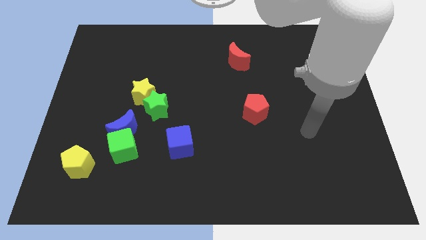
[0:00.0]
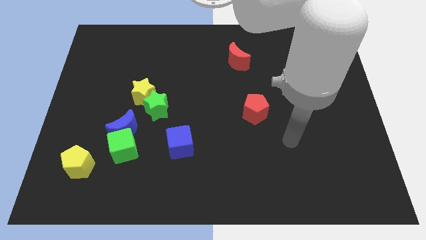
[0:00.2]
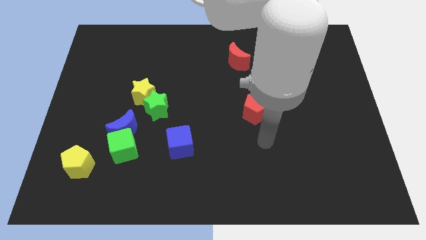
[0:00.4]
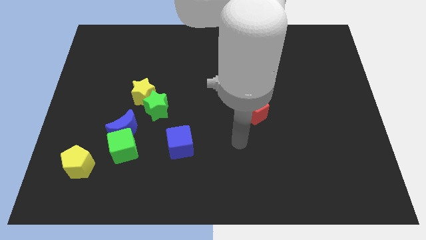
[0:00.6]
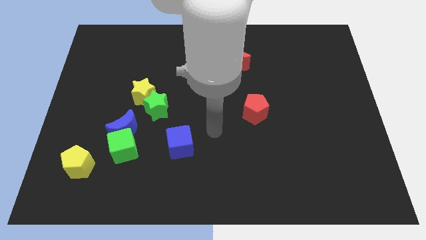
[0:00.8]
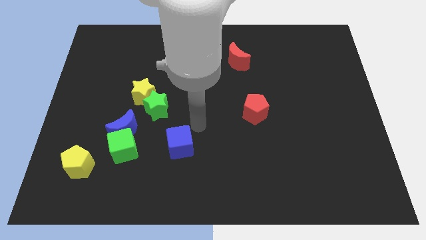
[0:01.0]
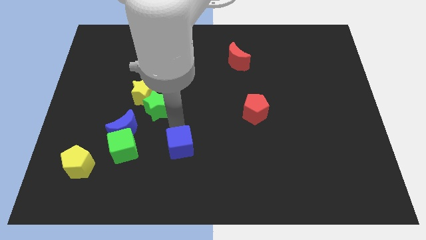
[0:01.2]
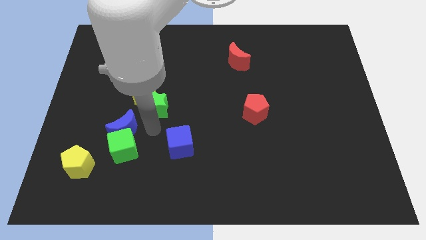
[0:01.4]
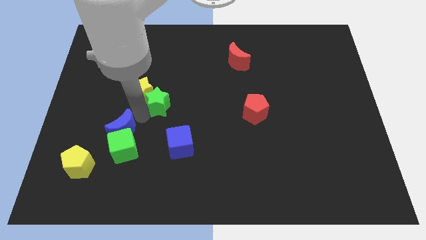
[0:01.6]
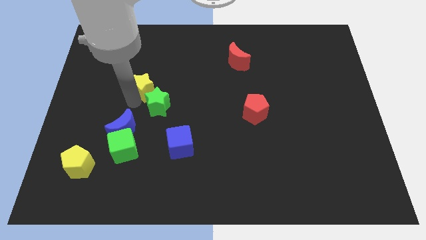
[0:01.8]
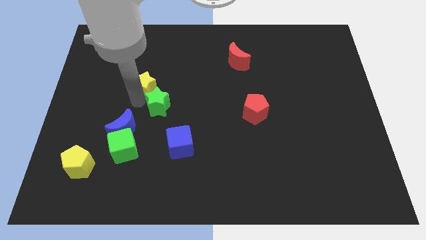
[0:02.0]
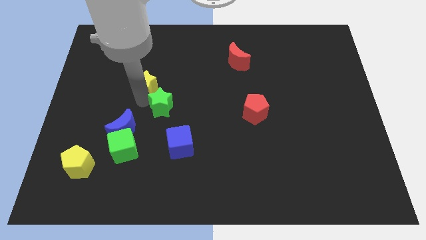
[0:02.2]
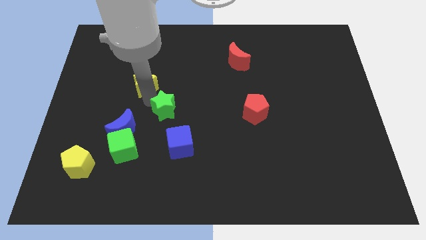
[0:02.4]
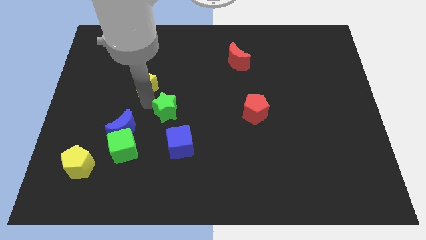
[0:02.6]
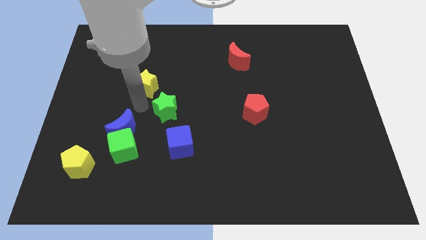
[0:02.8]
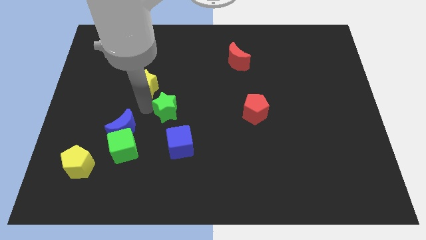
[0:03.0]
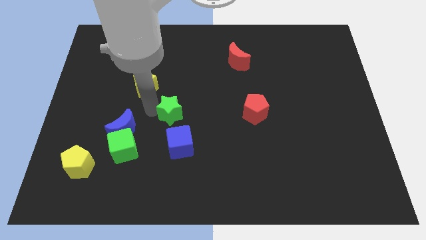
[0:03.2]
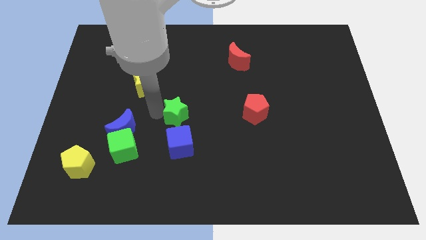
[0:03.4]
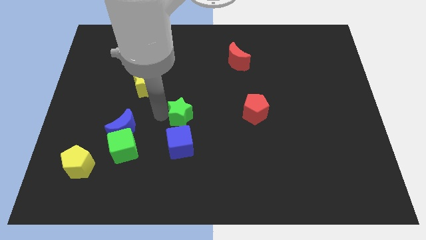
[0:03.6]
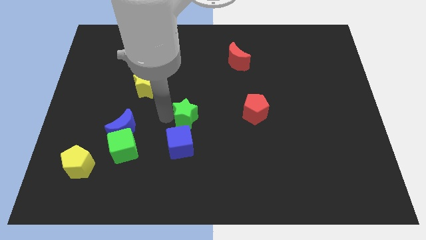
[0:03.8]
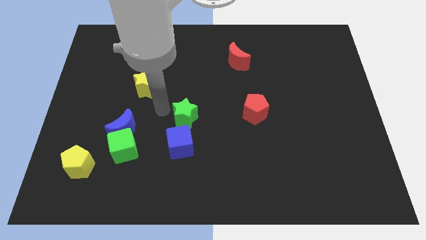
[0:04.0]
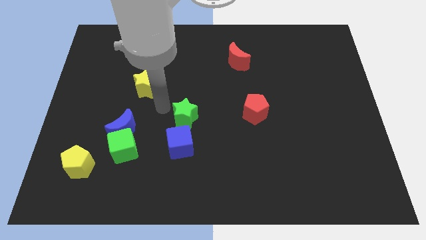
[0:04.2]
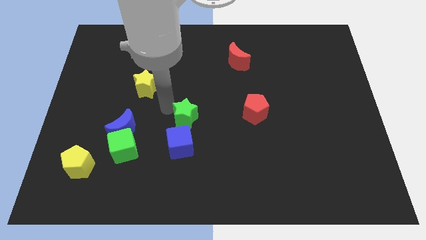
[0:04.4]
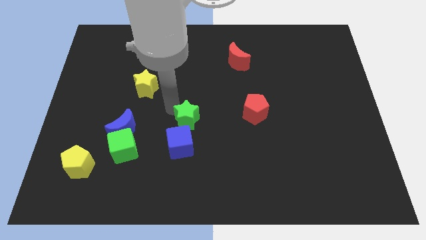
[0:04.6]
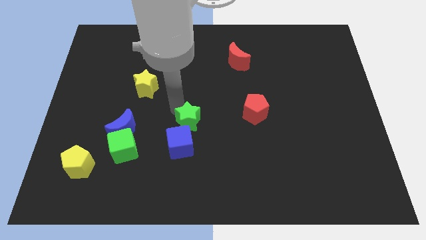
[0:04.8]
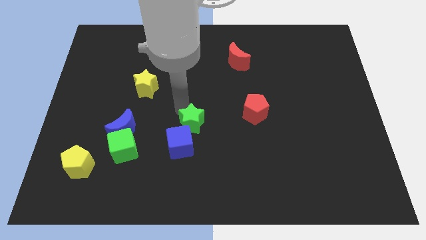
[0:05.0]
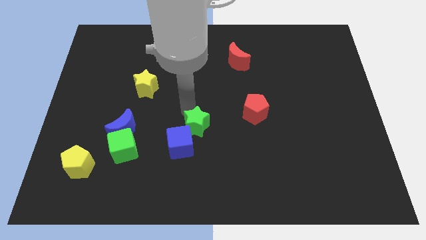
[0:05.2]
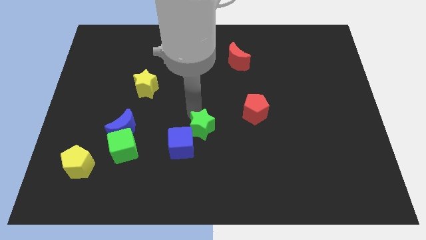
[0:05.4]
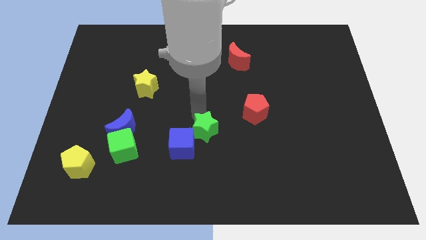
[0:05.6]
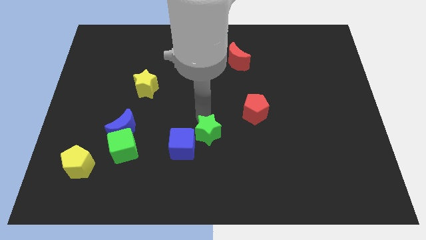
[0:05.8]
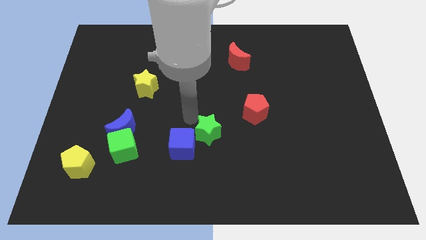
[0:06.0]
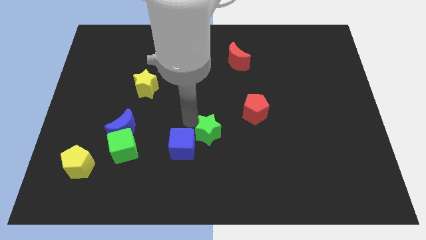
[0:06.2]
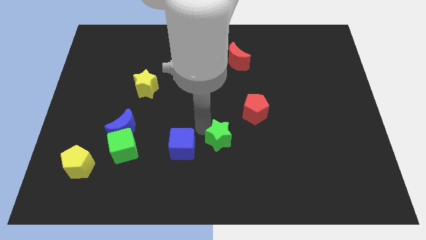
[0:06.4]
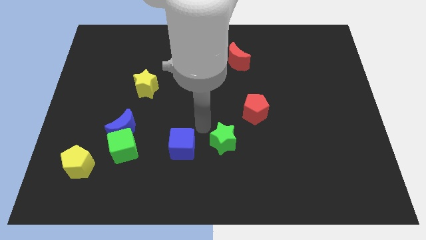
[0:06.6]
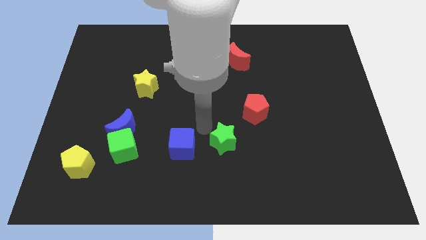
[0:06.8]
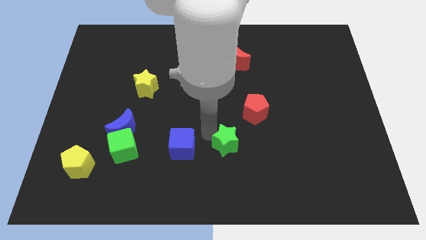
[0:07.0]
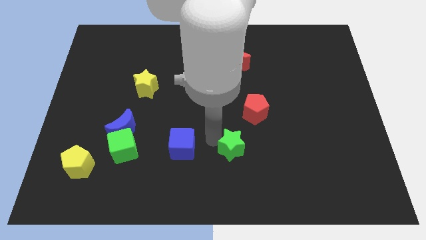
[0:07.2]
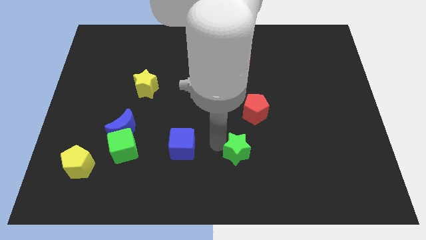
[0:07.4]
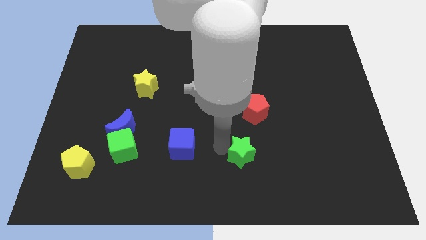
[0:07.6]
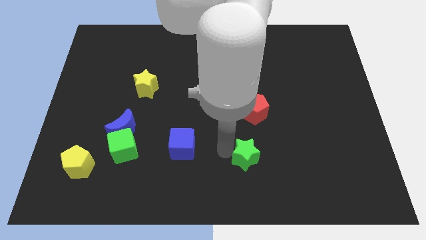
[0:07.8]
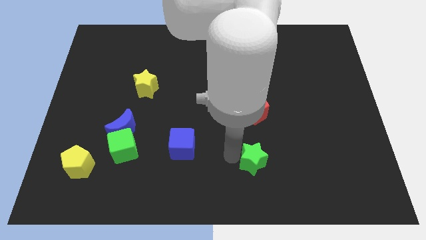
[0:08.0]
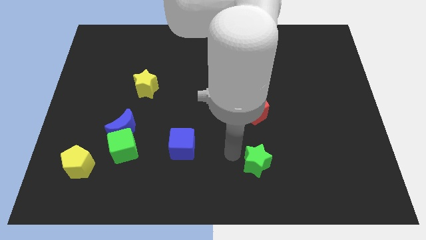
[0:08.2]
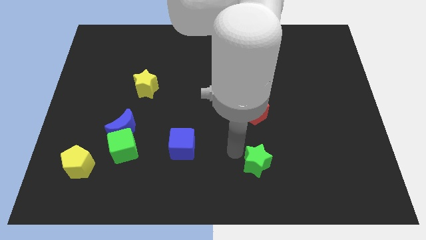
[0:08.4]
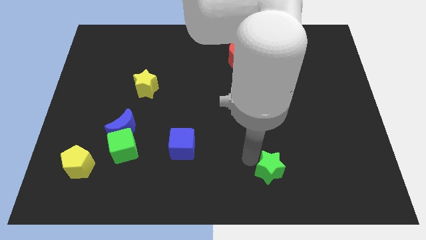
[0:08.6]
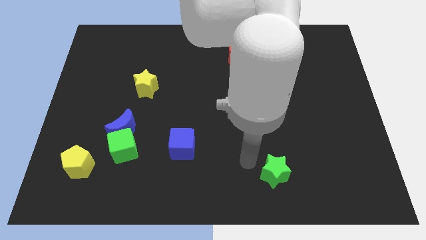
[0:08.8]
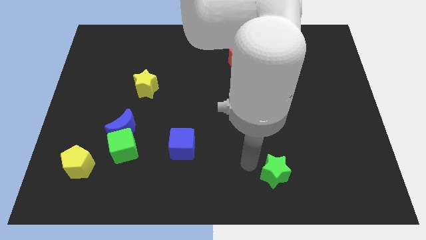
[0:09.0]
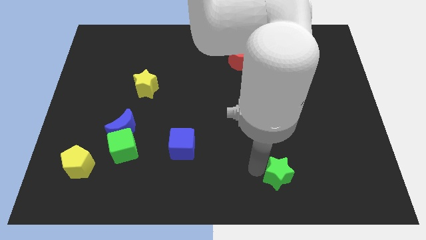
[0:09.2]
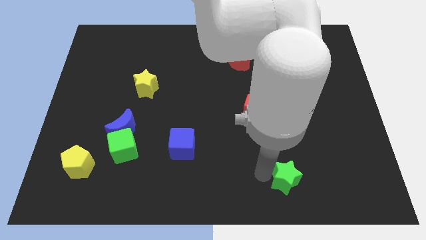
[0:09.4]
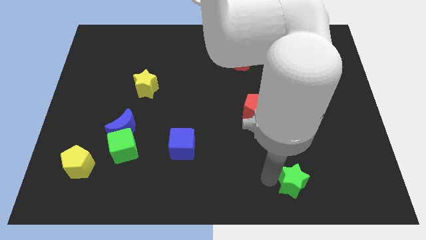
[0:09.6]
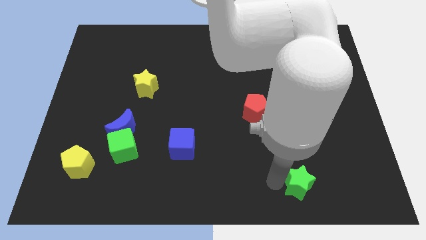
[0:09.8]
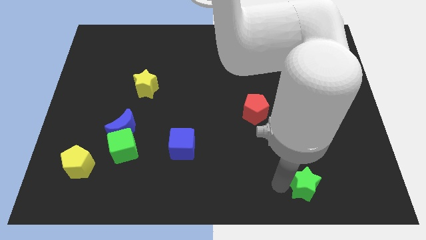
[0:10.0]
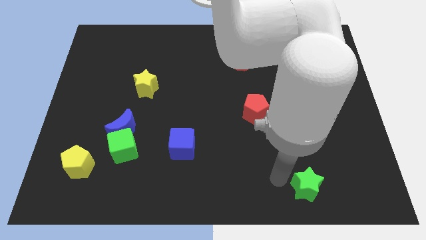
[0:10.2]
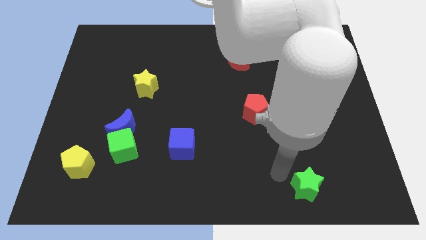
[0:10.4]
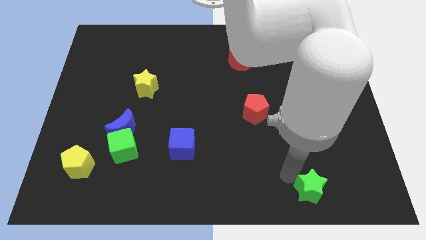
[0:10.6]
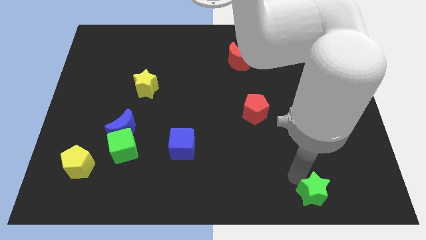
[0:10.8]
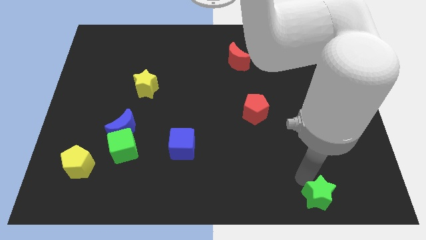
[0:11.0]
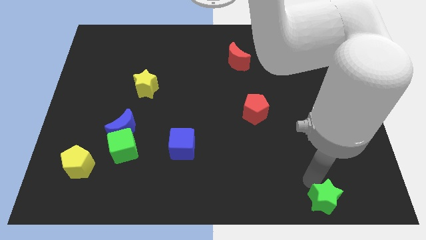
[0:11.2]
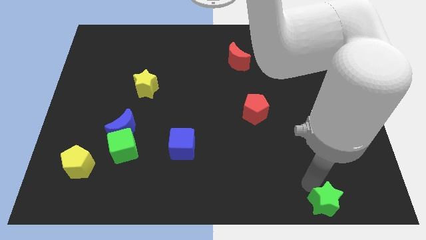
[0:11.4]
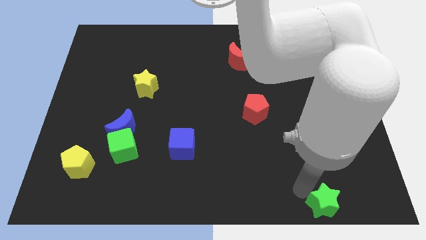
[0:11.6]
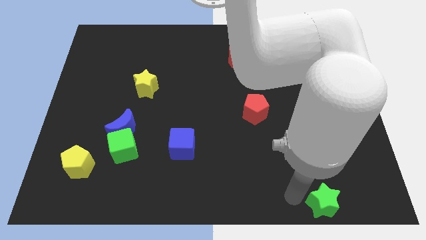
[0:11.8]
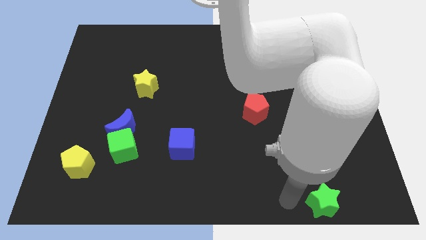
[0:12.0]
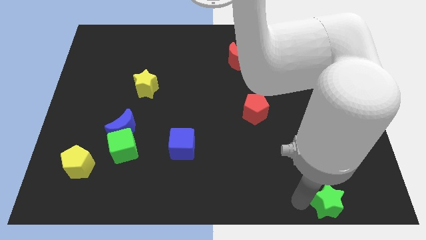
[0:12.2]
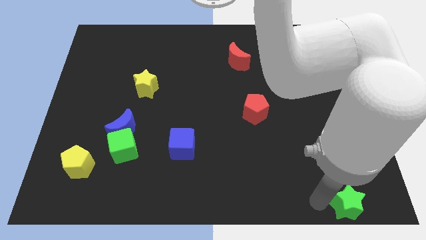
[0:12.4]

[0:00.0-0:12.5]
put the green star to the lower right corner
